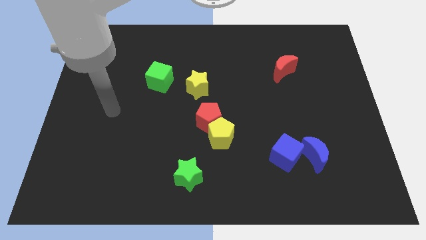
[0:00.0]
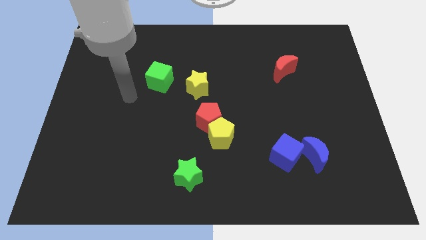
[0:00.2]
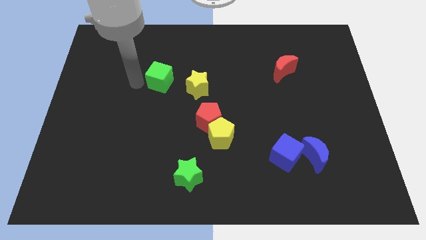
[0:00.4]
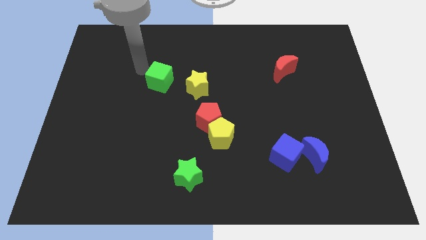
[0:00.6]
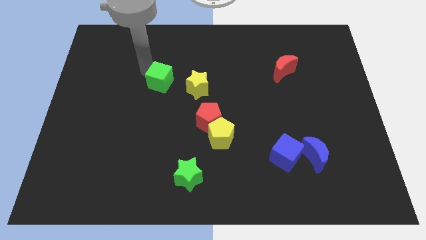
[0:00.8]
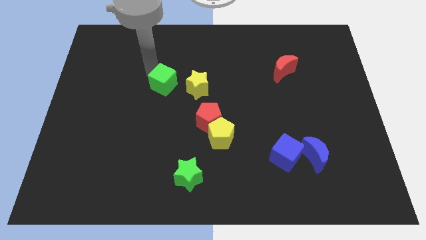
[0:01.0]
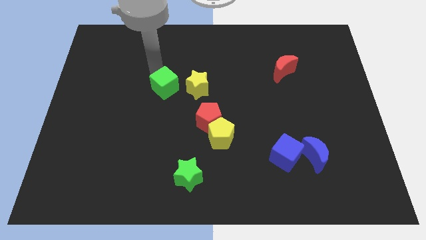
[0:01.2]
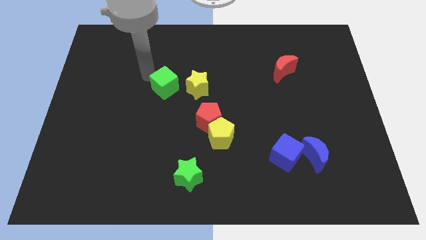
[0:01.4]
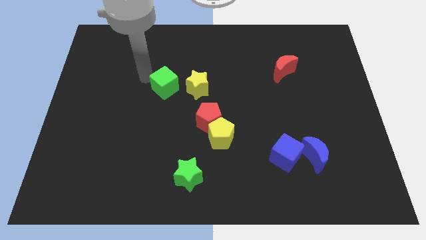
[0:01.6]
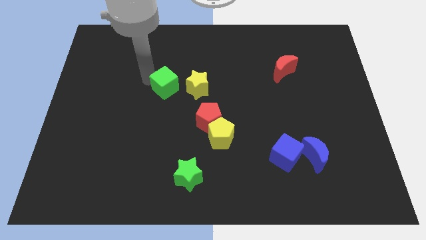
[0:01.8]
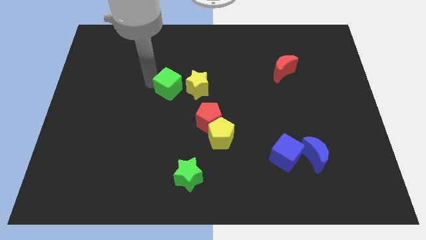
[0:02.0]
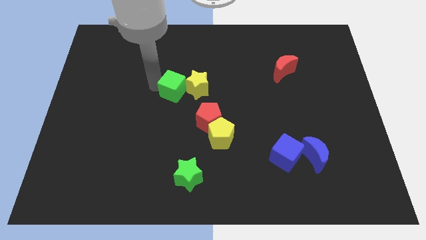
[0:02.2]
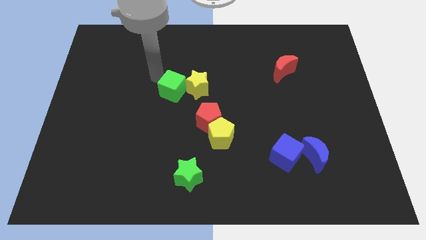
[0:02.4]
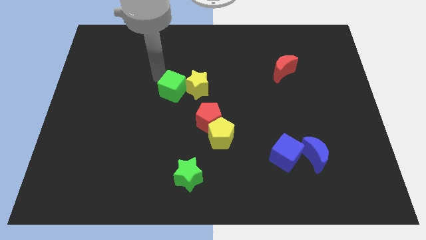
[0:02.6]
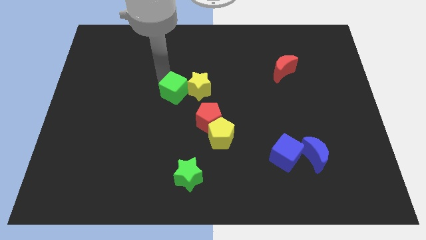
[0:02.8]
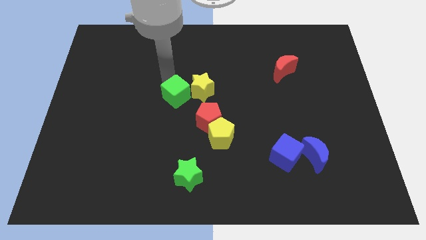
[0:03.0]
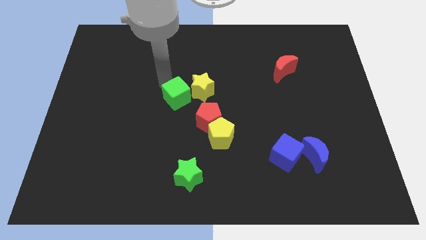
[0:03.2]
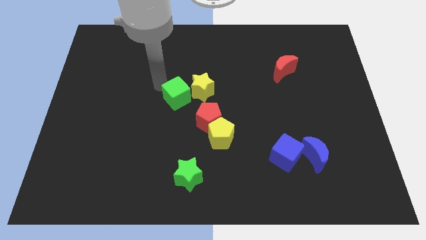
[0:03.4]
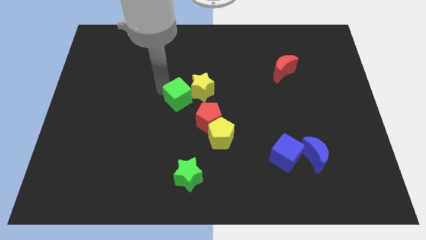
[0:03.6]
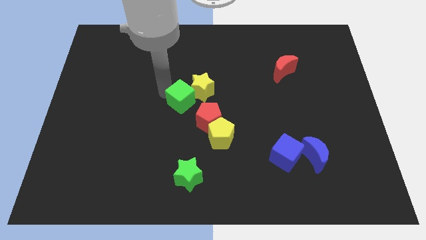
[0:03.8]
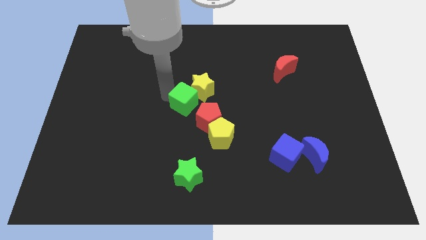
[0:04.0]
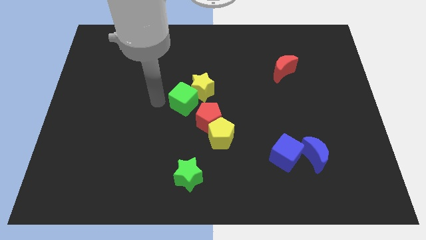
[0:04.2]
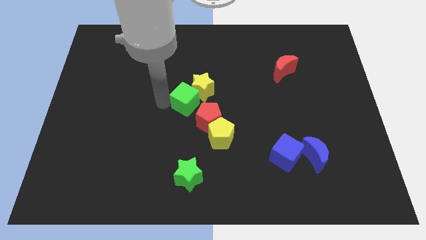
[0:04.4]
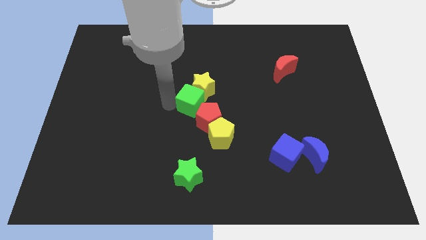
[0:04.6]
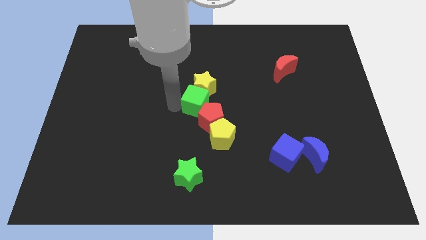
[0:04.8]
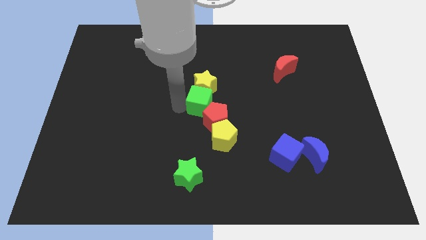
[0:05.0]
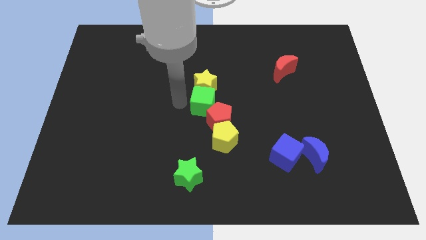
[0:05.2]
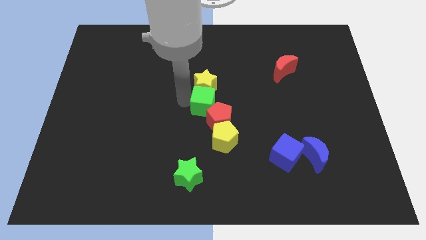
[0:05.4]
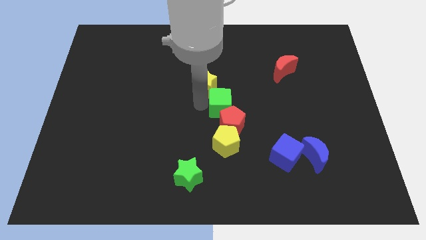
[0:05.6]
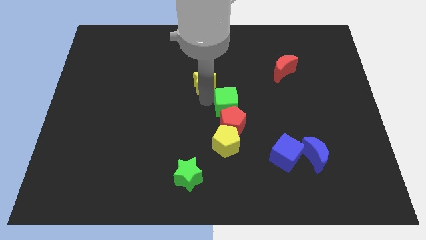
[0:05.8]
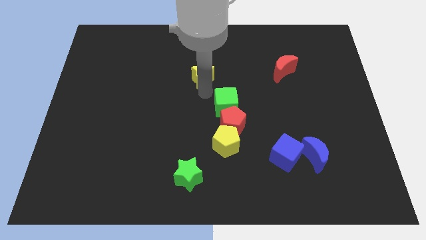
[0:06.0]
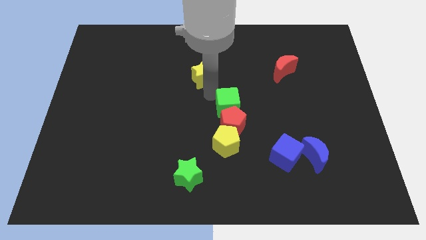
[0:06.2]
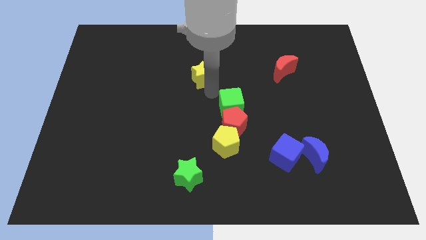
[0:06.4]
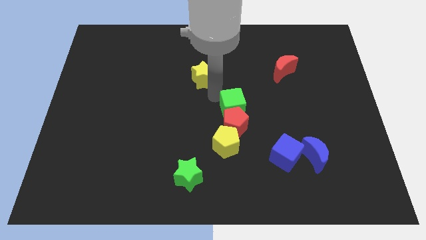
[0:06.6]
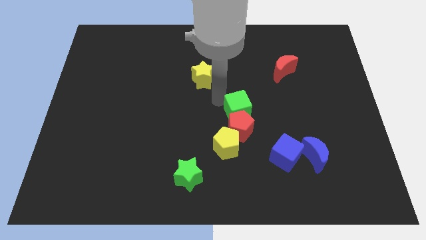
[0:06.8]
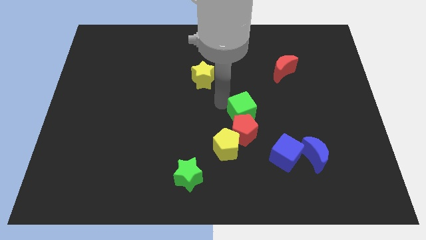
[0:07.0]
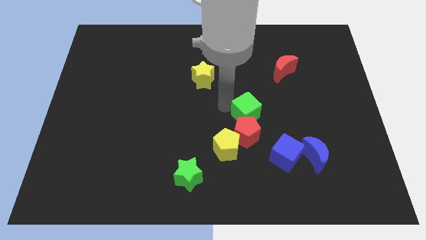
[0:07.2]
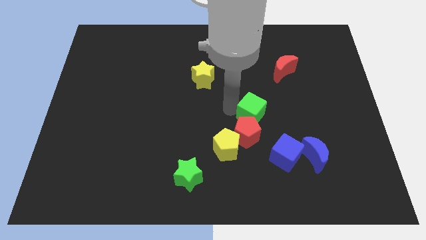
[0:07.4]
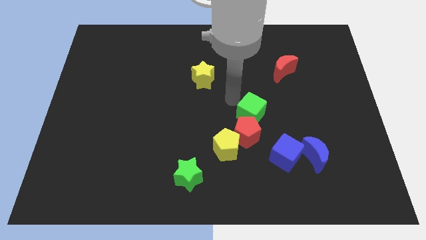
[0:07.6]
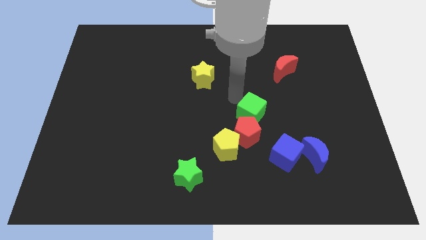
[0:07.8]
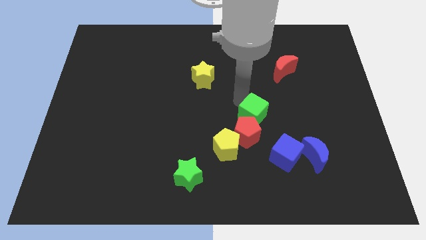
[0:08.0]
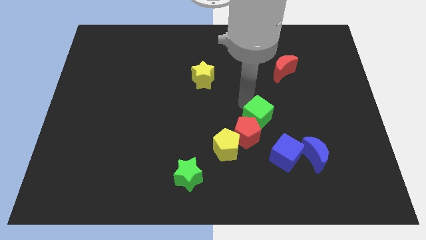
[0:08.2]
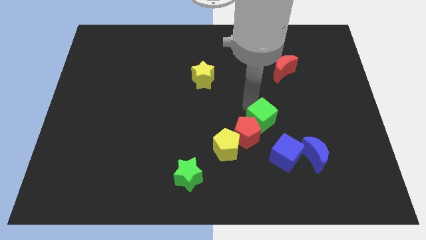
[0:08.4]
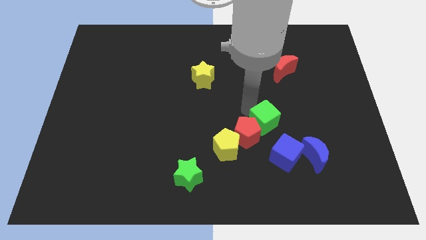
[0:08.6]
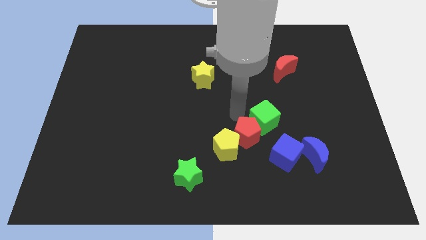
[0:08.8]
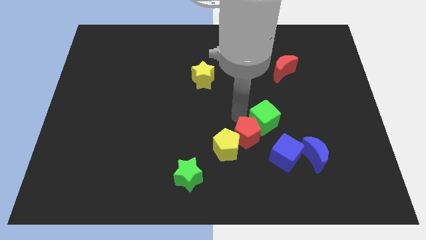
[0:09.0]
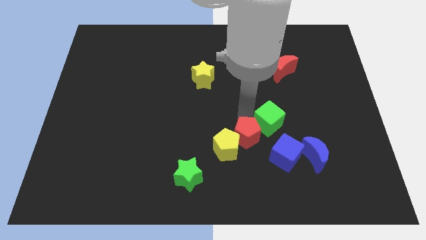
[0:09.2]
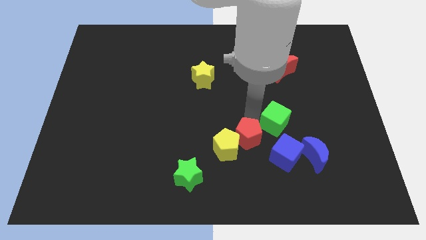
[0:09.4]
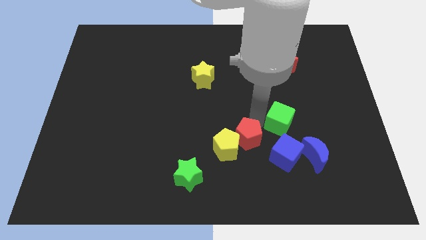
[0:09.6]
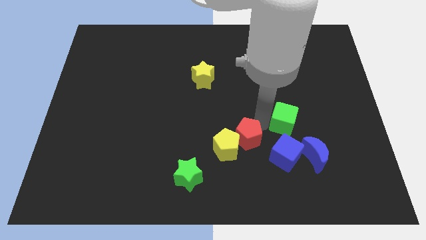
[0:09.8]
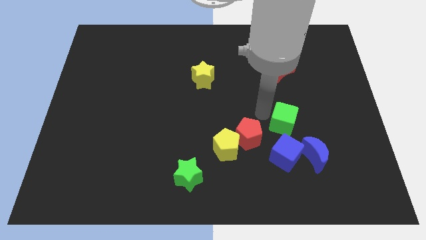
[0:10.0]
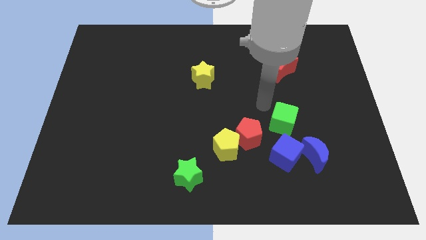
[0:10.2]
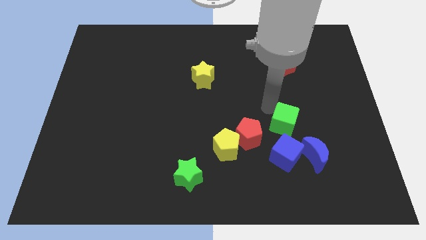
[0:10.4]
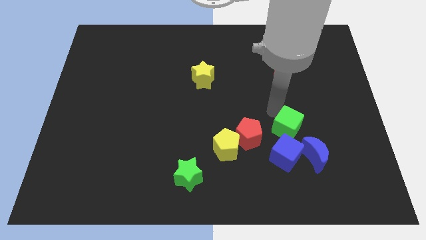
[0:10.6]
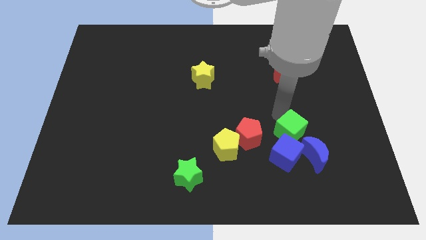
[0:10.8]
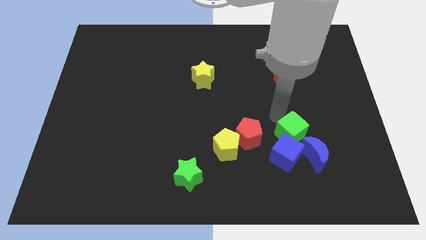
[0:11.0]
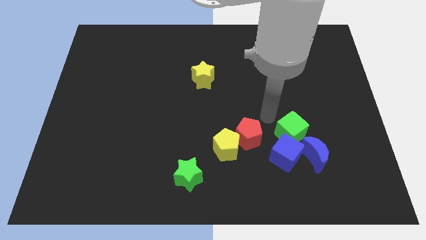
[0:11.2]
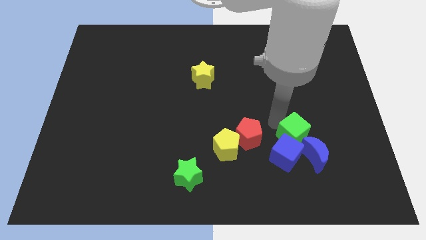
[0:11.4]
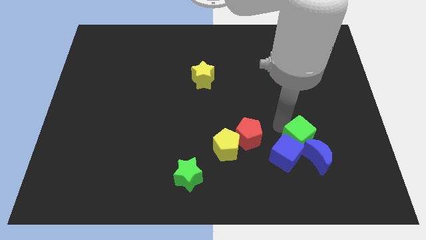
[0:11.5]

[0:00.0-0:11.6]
put the green cube to the blue moon

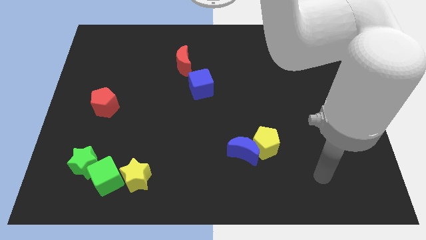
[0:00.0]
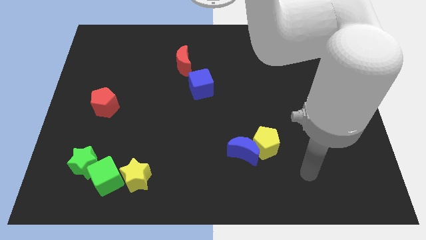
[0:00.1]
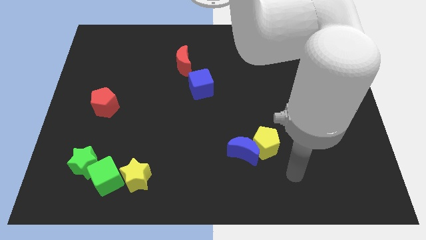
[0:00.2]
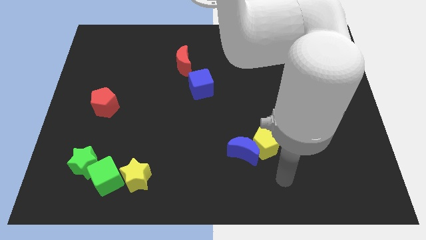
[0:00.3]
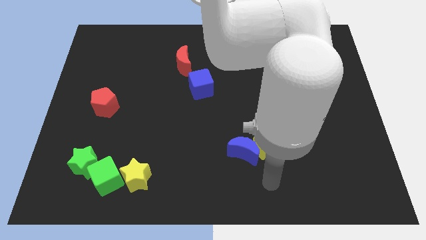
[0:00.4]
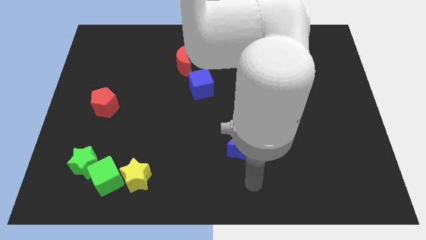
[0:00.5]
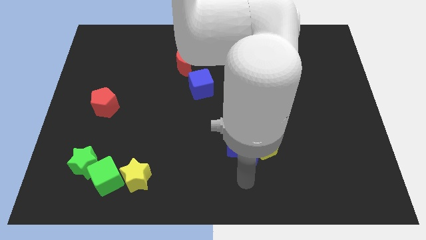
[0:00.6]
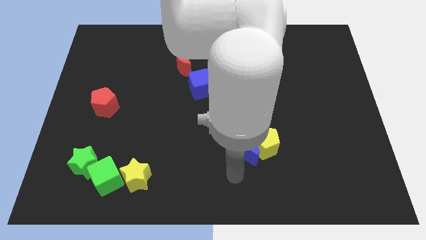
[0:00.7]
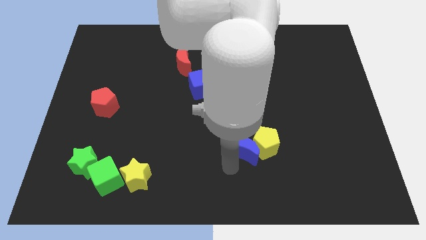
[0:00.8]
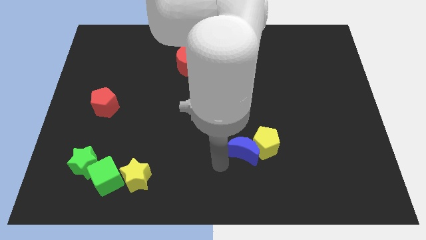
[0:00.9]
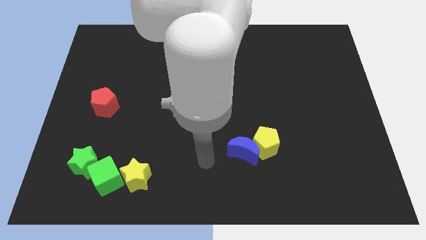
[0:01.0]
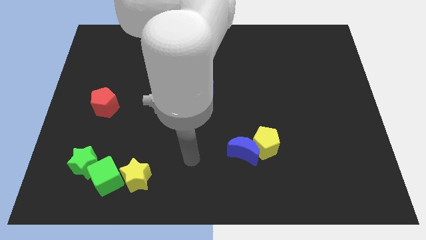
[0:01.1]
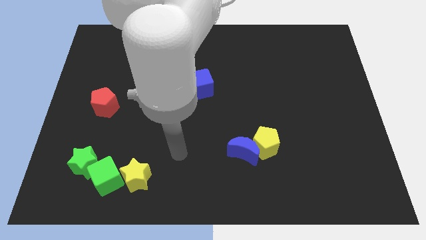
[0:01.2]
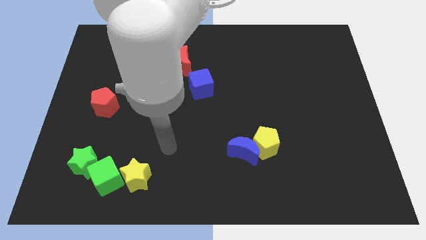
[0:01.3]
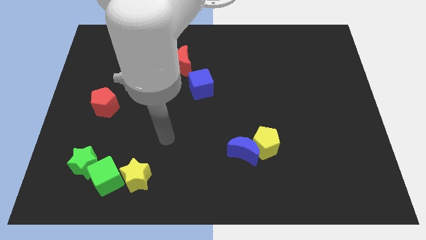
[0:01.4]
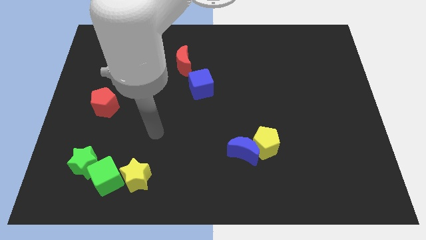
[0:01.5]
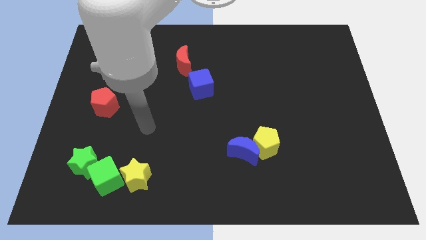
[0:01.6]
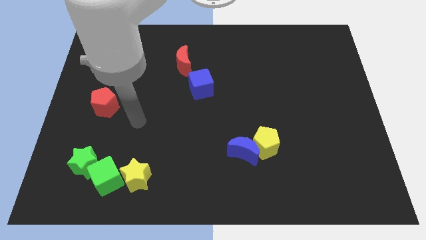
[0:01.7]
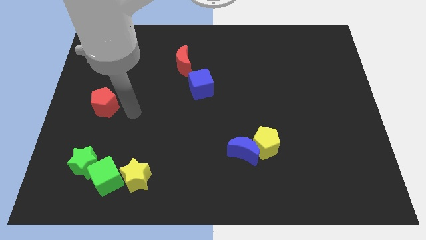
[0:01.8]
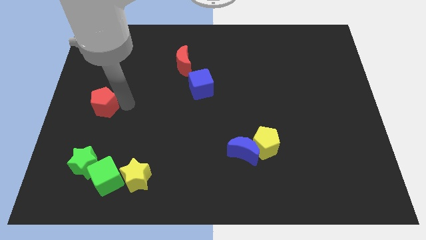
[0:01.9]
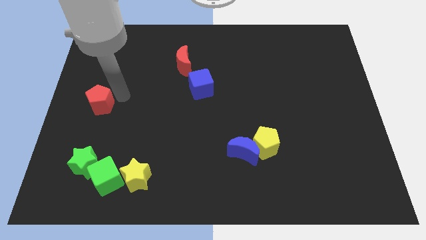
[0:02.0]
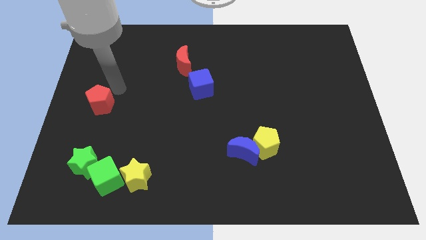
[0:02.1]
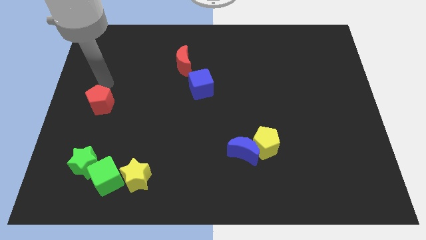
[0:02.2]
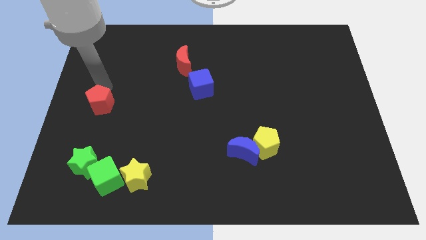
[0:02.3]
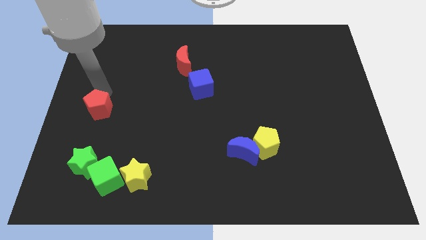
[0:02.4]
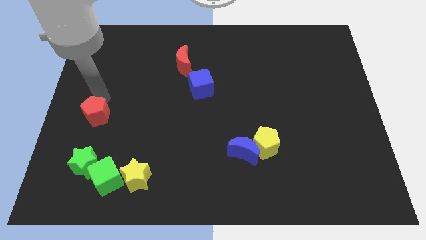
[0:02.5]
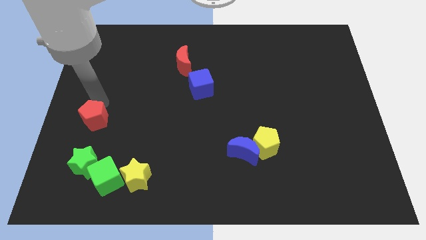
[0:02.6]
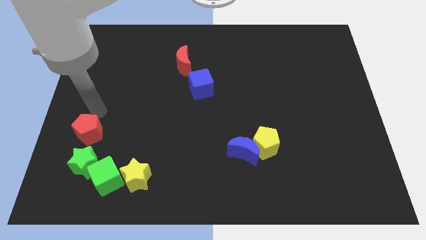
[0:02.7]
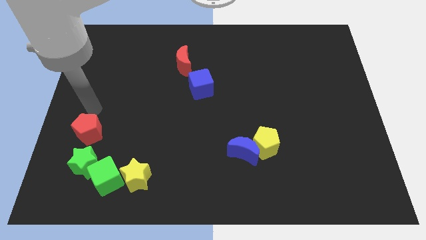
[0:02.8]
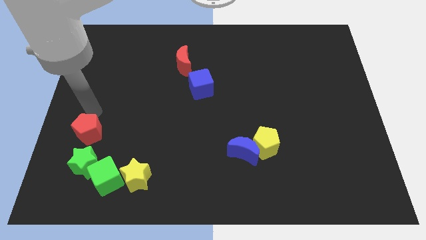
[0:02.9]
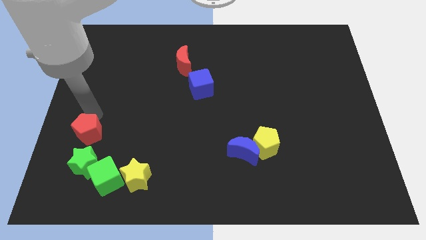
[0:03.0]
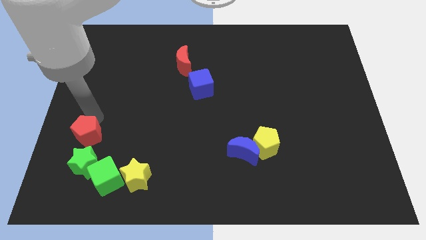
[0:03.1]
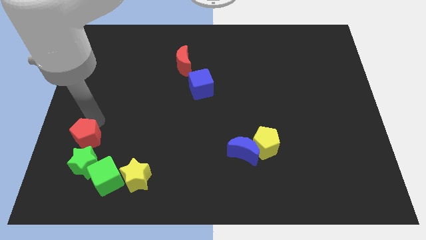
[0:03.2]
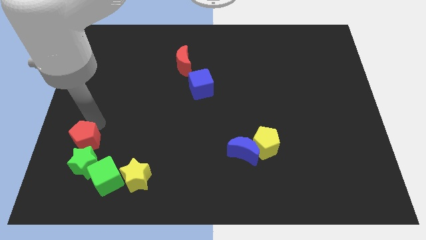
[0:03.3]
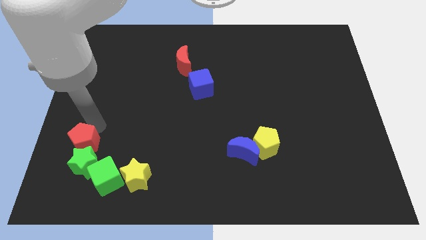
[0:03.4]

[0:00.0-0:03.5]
put the red pentagon towards the green star
